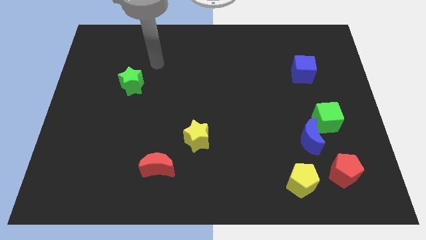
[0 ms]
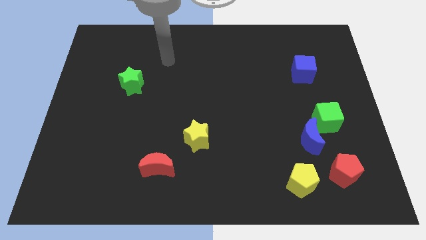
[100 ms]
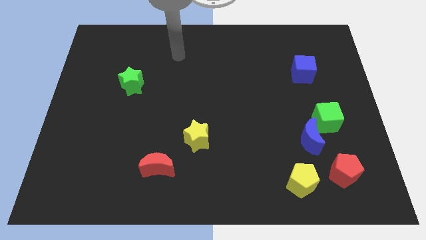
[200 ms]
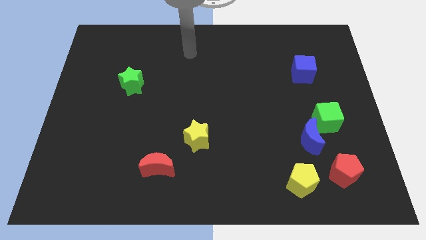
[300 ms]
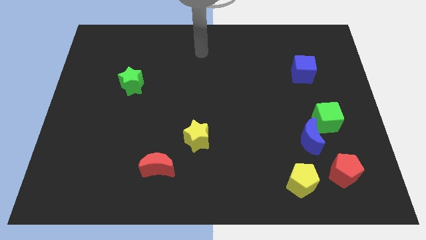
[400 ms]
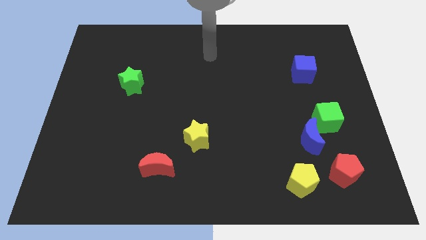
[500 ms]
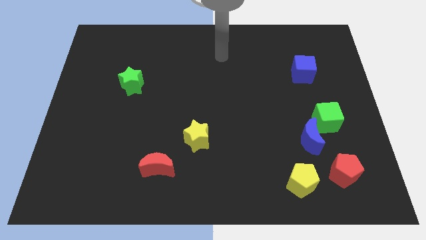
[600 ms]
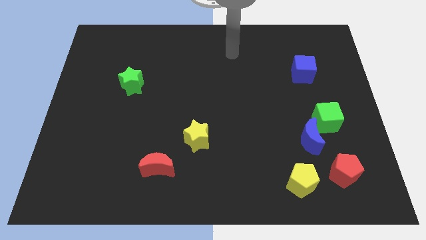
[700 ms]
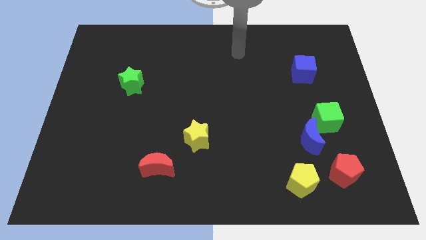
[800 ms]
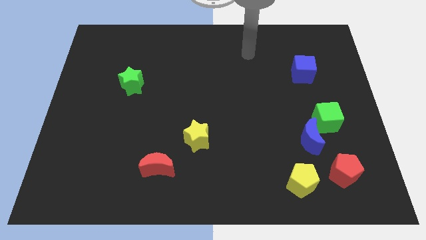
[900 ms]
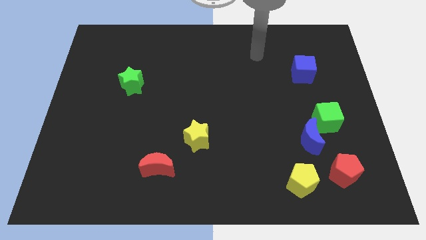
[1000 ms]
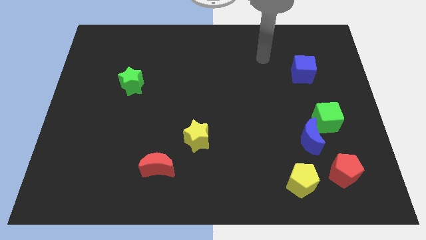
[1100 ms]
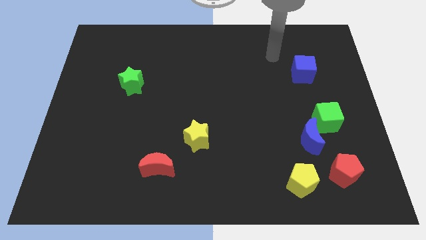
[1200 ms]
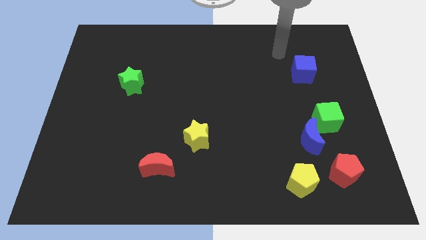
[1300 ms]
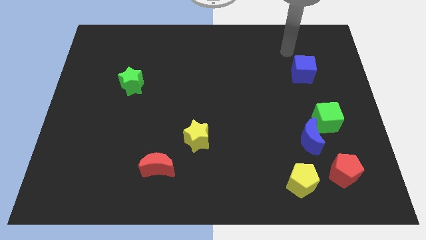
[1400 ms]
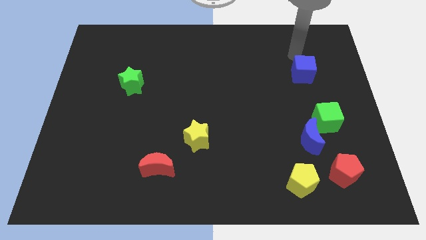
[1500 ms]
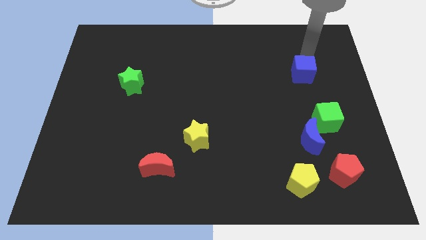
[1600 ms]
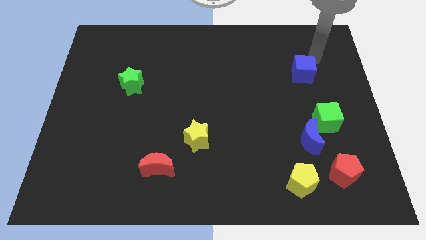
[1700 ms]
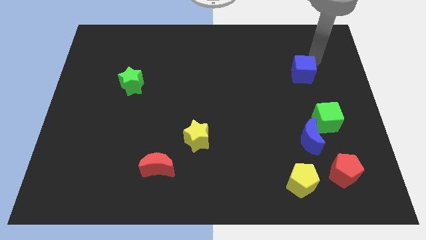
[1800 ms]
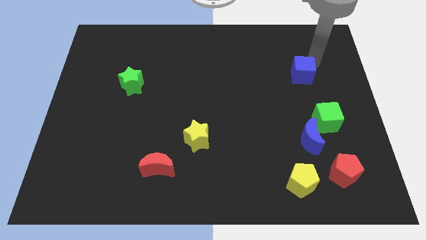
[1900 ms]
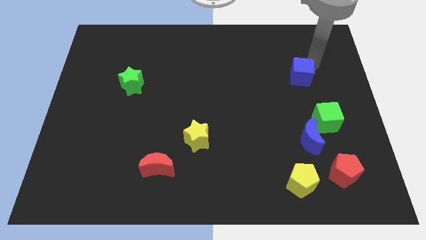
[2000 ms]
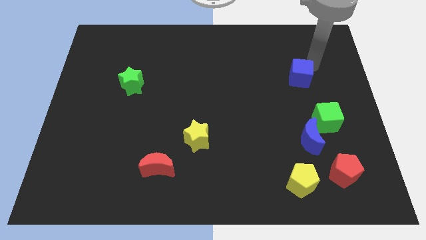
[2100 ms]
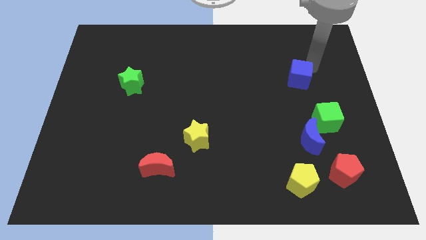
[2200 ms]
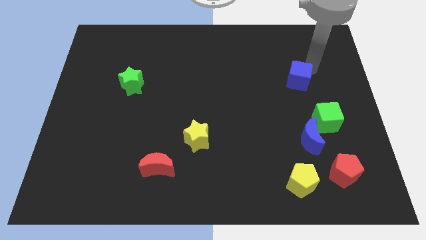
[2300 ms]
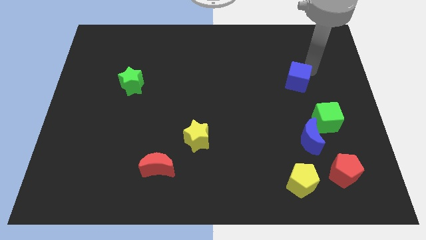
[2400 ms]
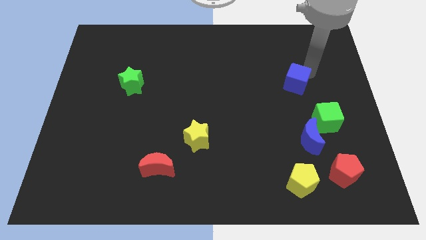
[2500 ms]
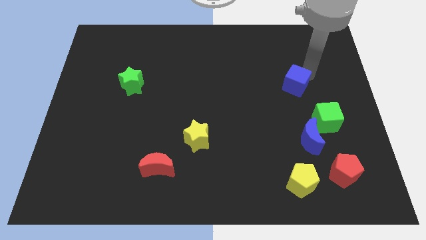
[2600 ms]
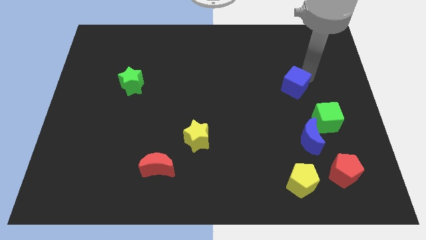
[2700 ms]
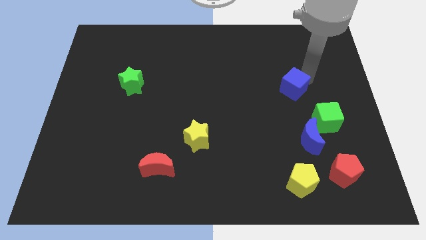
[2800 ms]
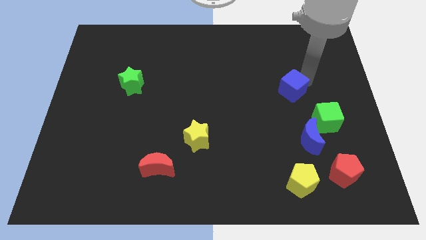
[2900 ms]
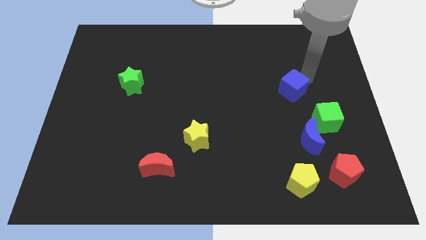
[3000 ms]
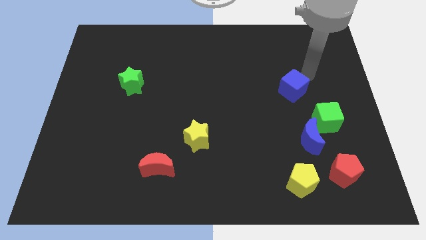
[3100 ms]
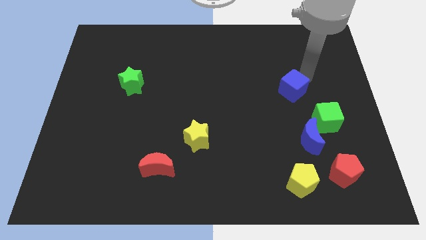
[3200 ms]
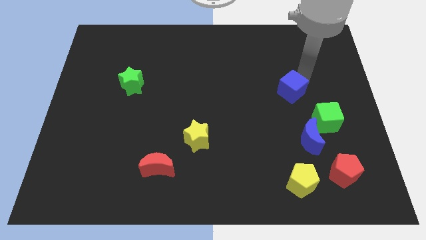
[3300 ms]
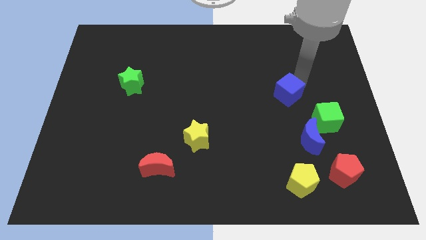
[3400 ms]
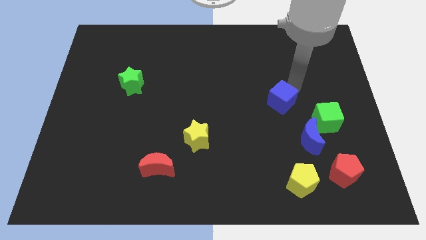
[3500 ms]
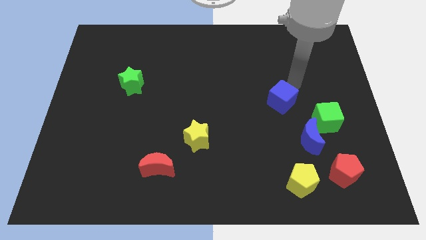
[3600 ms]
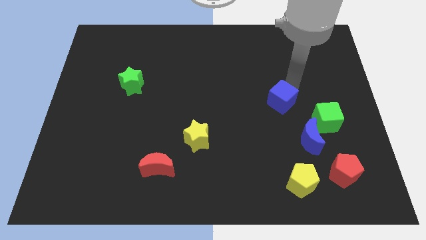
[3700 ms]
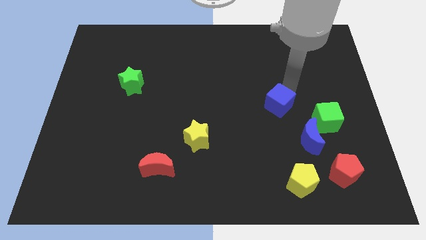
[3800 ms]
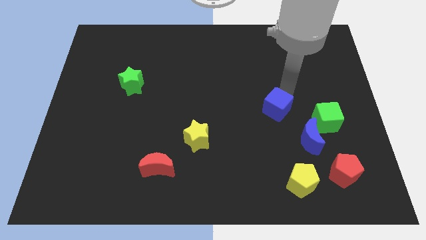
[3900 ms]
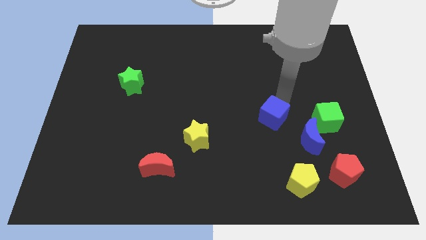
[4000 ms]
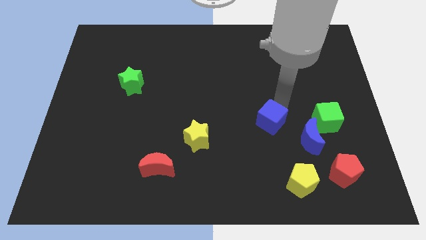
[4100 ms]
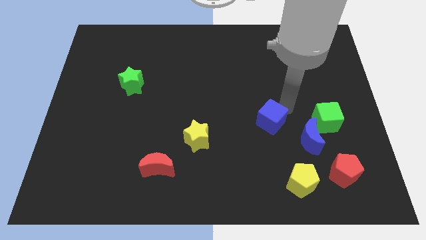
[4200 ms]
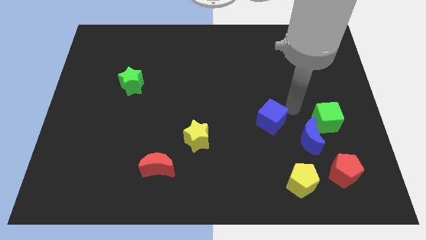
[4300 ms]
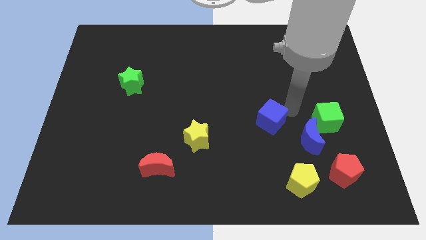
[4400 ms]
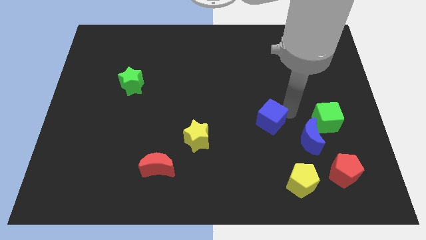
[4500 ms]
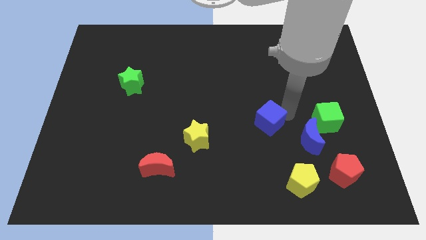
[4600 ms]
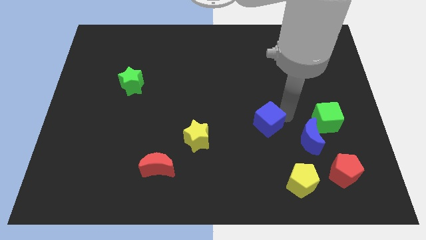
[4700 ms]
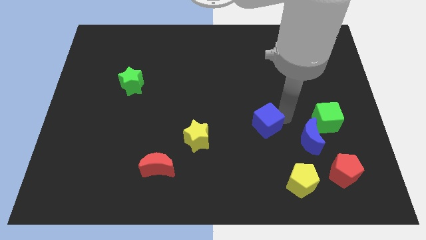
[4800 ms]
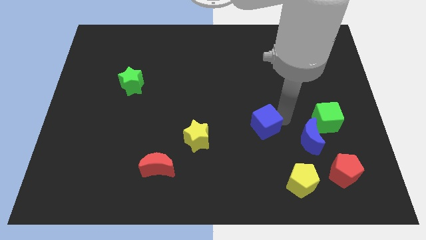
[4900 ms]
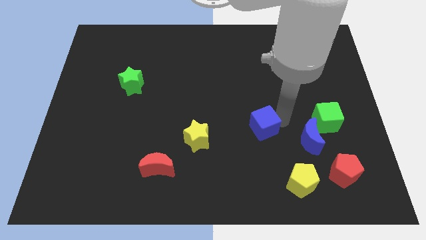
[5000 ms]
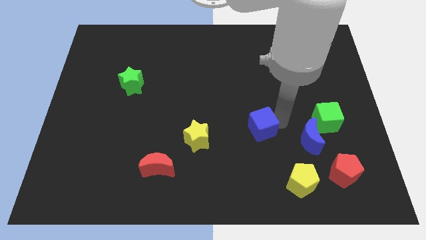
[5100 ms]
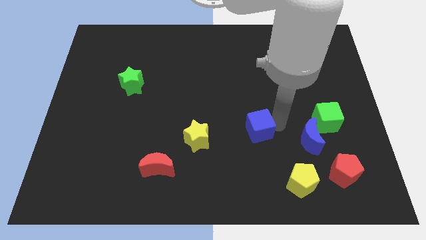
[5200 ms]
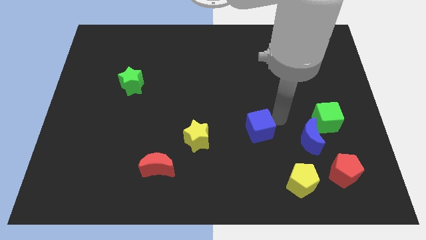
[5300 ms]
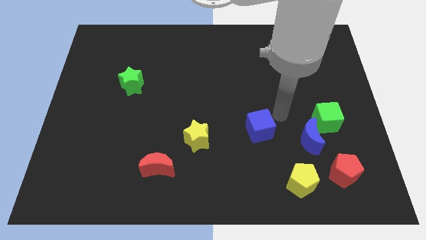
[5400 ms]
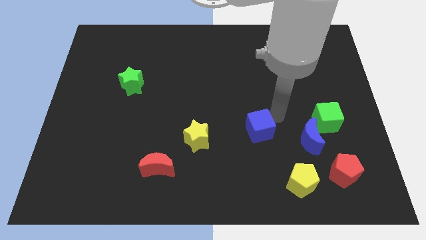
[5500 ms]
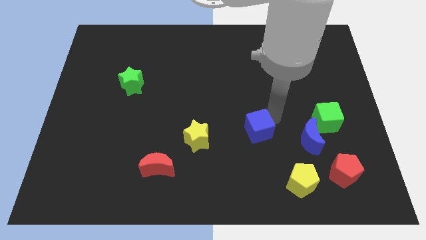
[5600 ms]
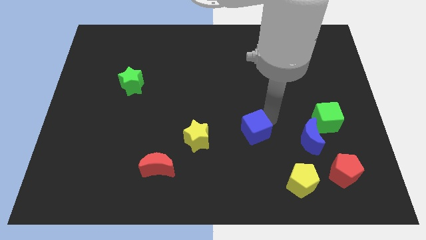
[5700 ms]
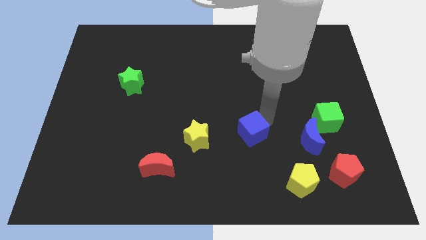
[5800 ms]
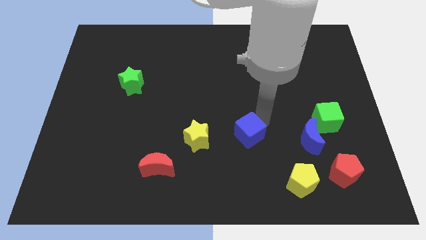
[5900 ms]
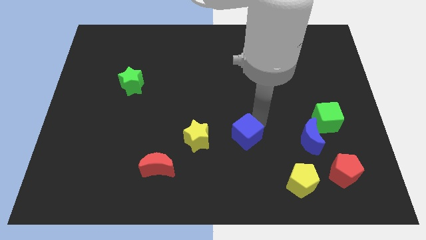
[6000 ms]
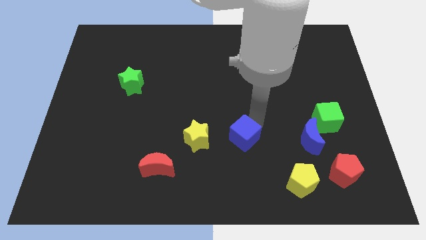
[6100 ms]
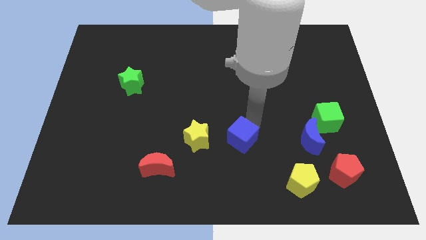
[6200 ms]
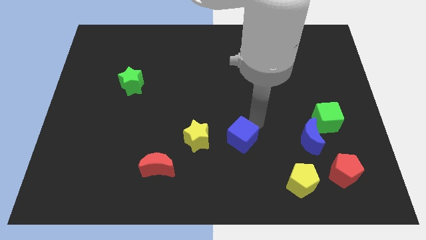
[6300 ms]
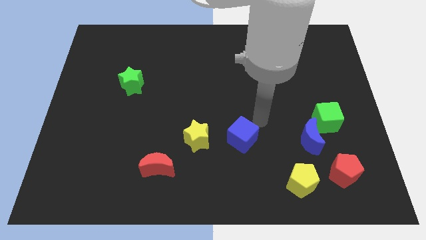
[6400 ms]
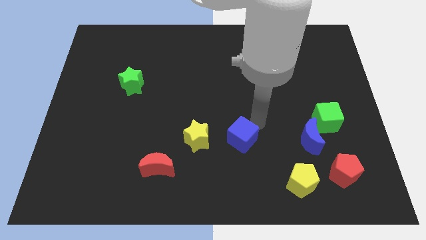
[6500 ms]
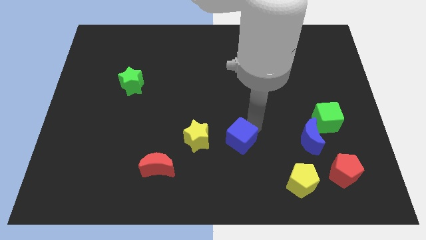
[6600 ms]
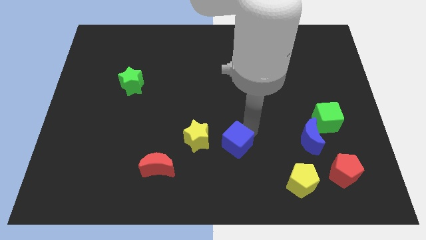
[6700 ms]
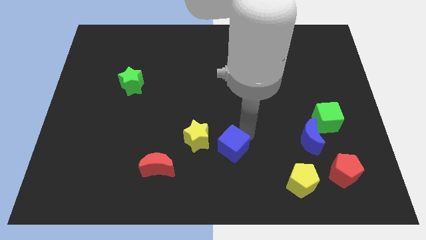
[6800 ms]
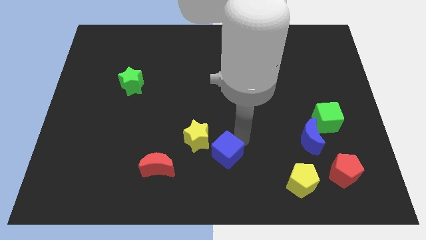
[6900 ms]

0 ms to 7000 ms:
put the blue cube to the right of the red moon
